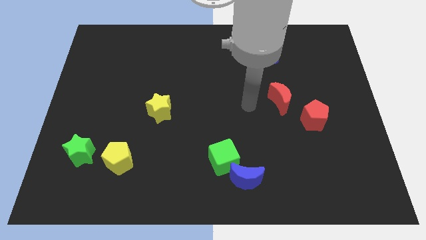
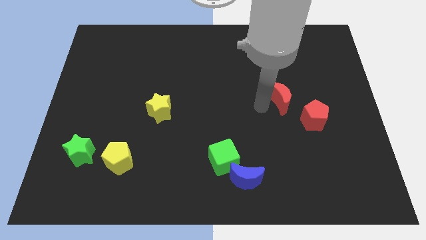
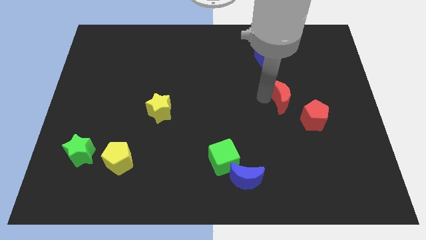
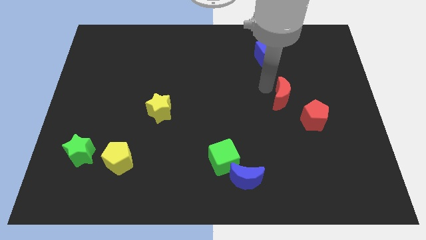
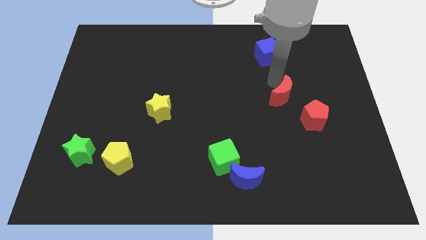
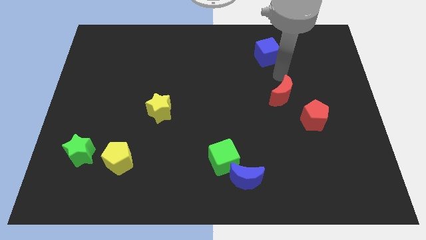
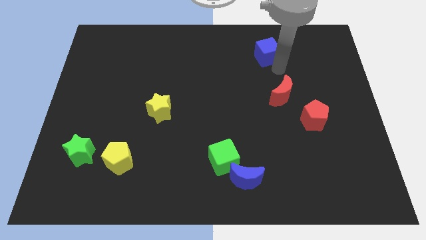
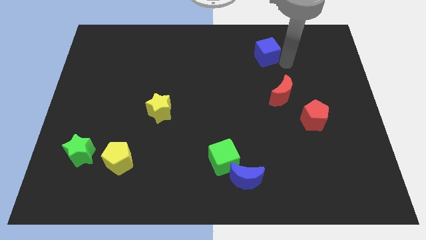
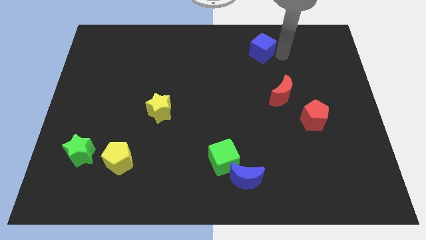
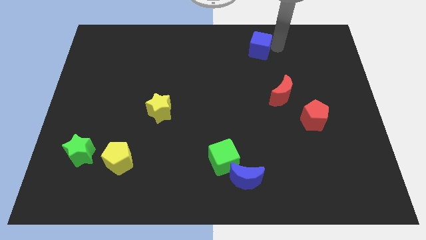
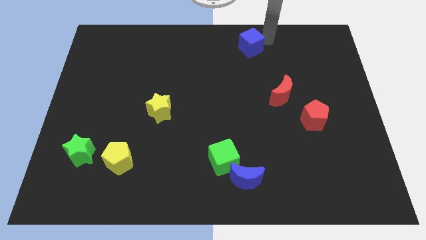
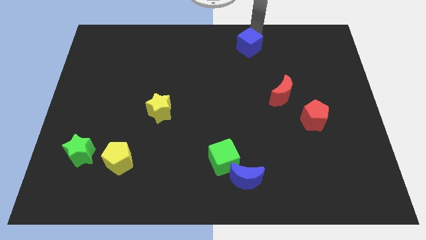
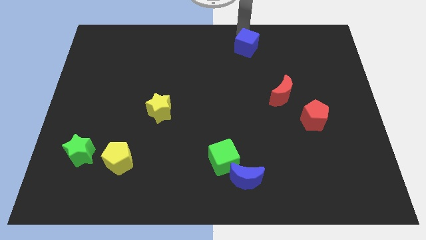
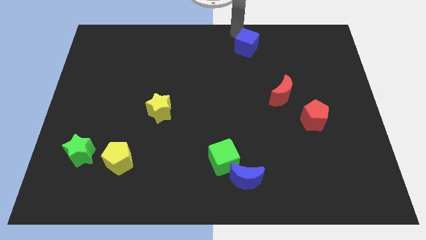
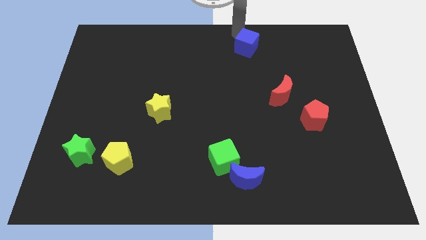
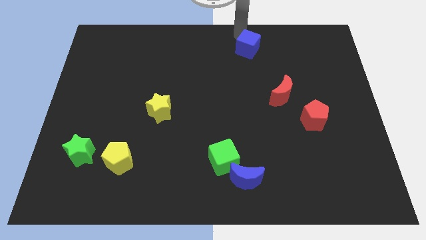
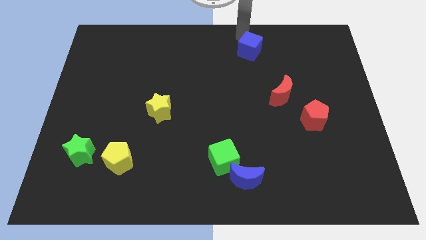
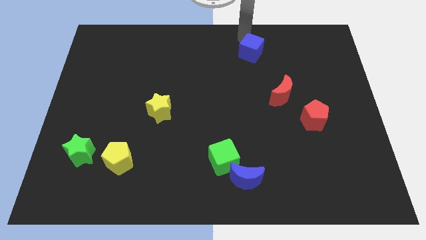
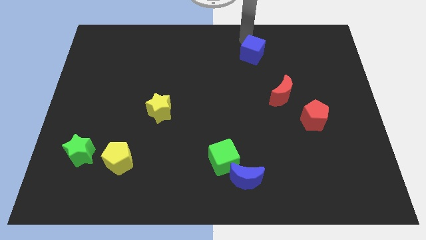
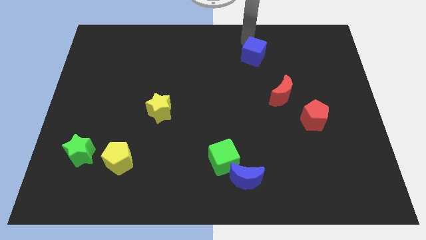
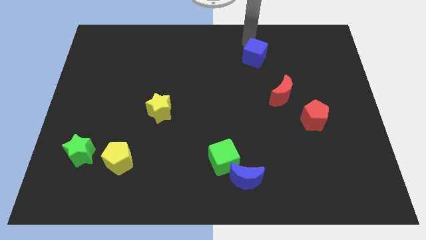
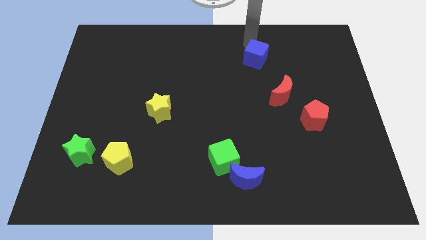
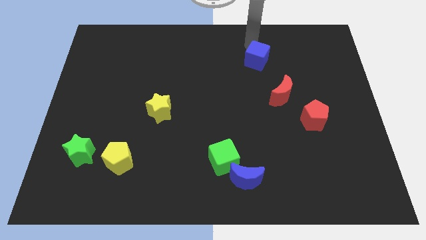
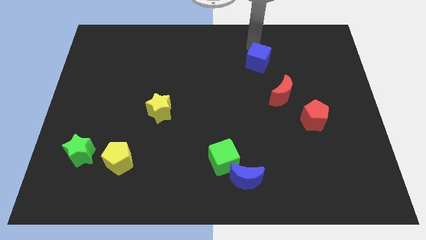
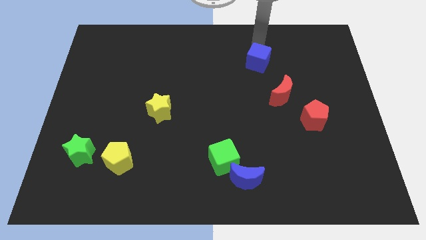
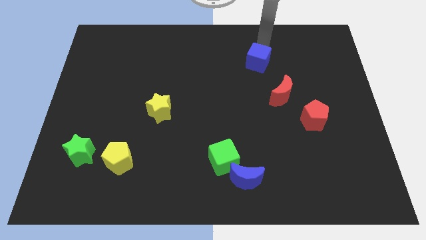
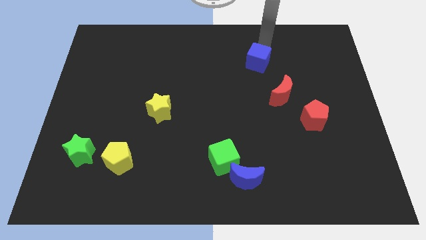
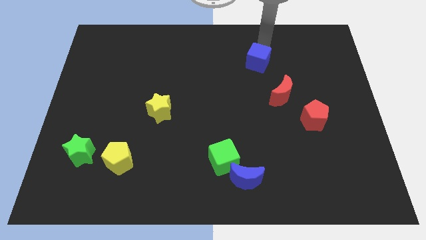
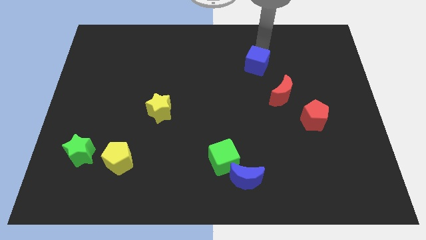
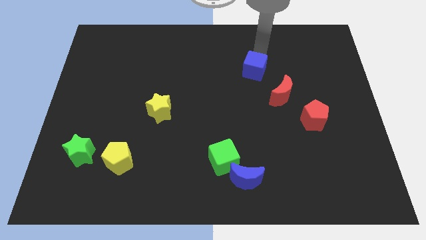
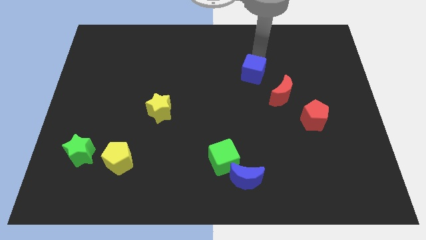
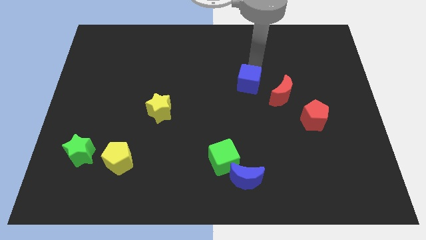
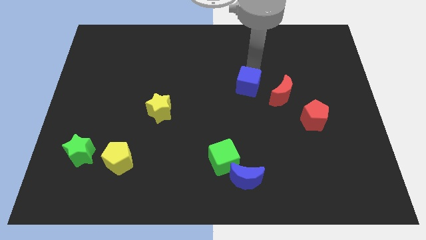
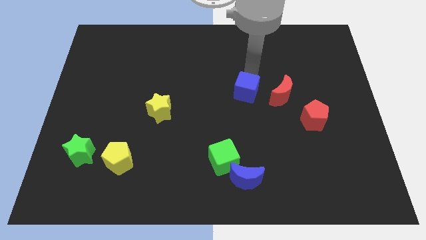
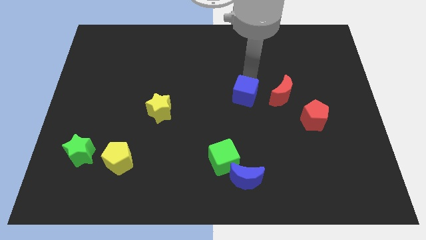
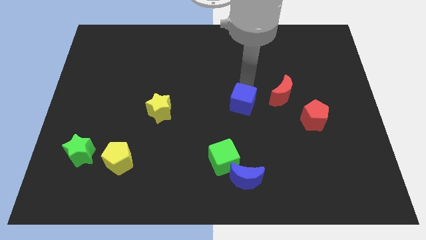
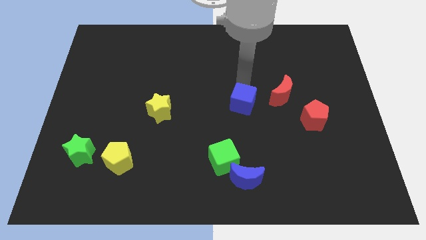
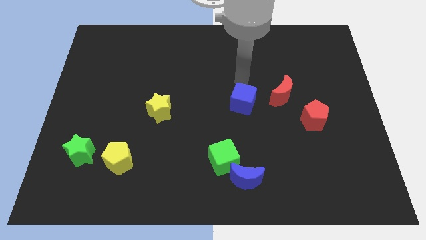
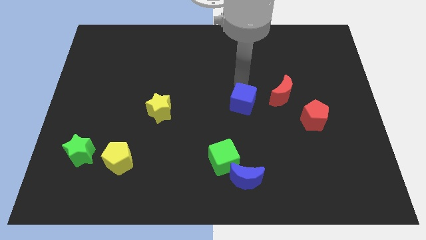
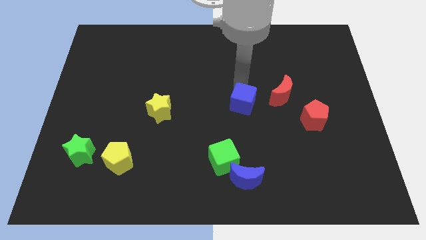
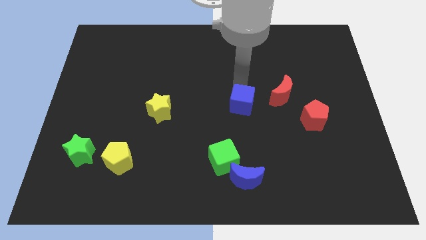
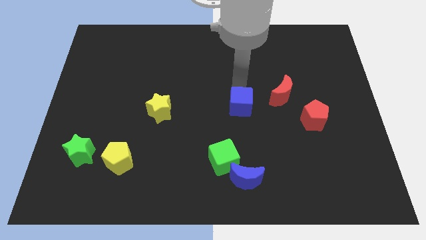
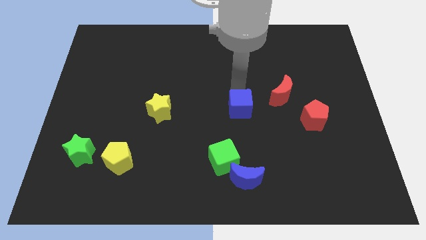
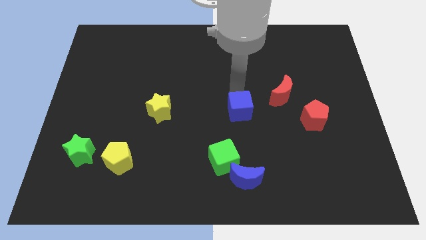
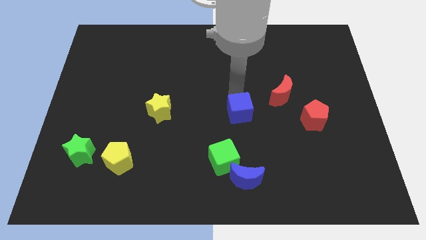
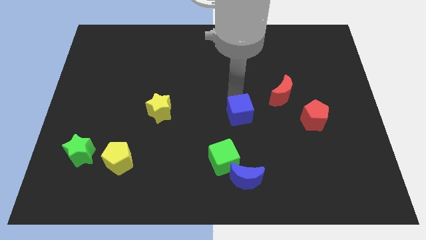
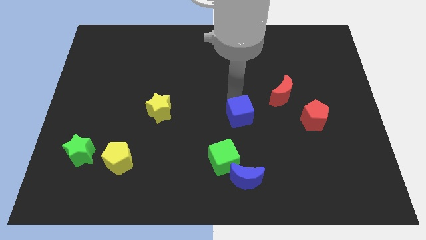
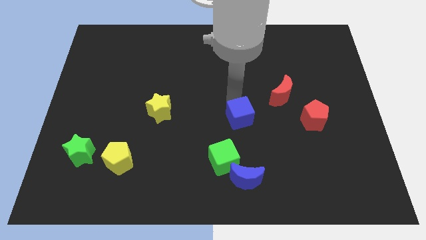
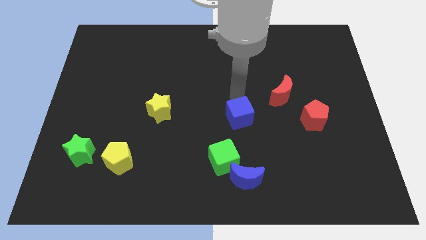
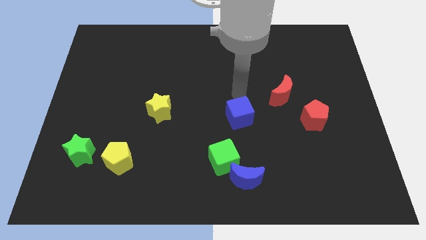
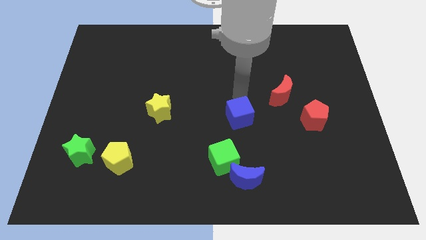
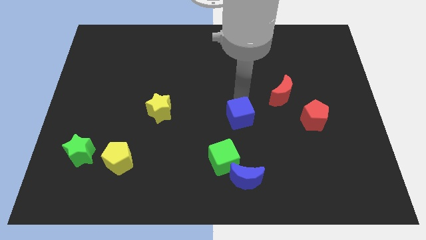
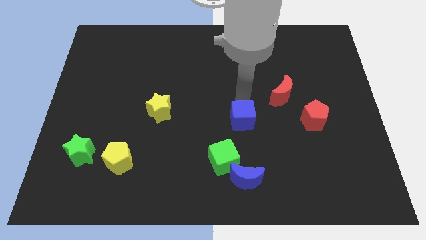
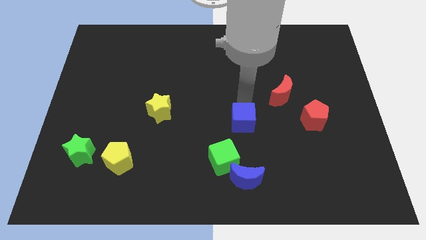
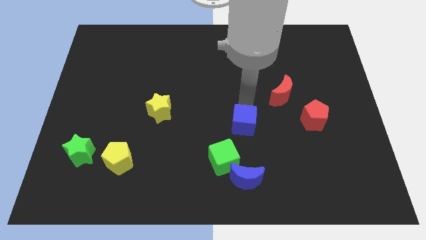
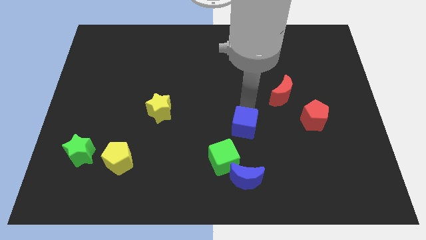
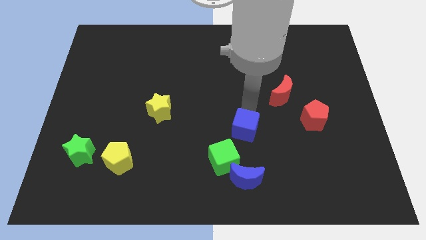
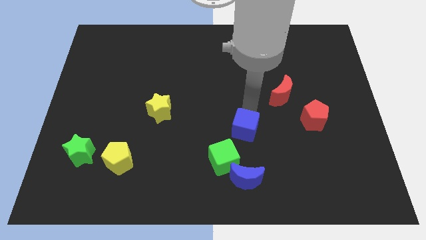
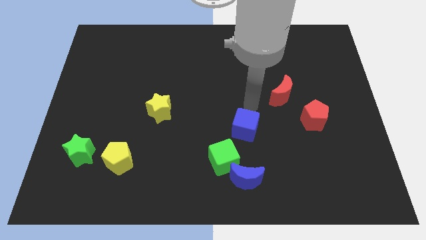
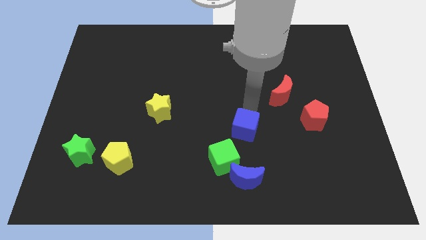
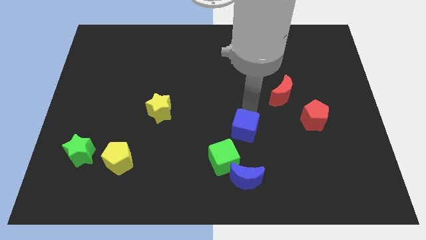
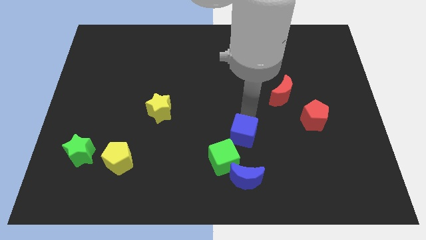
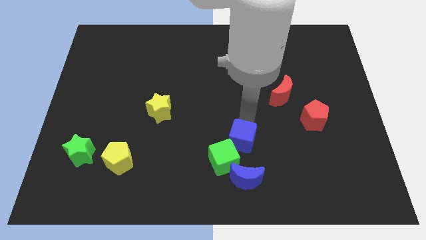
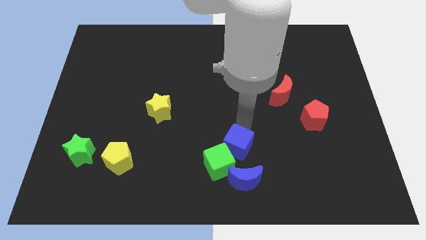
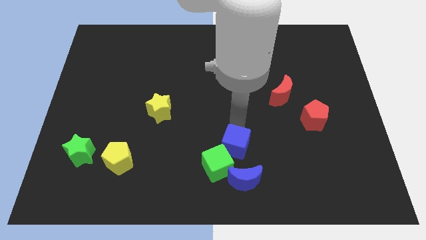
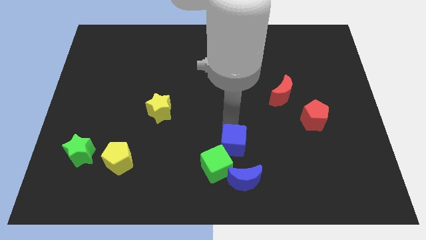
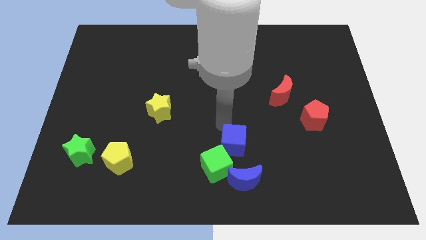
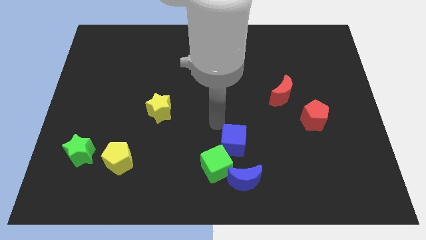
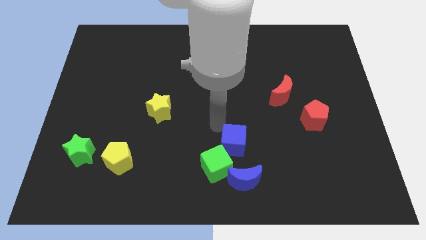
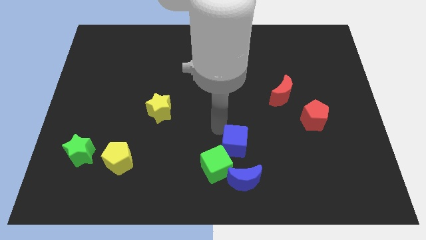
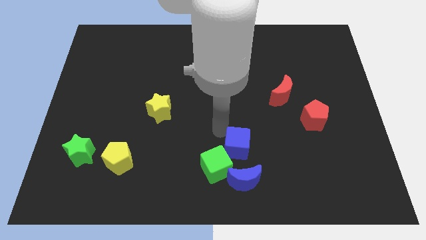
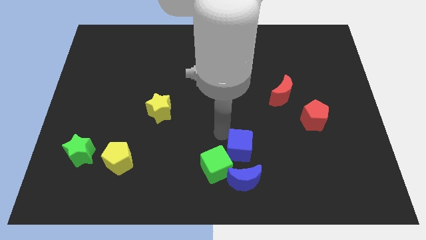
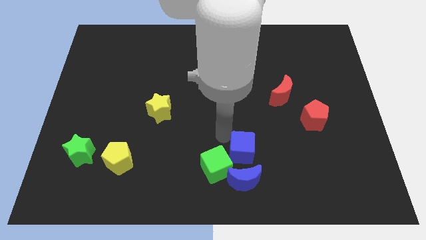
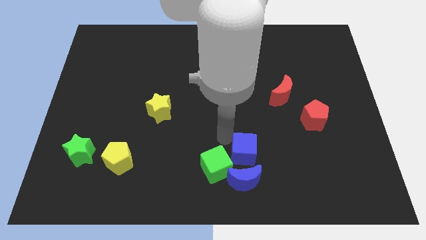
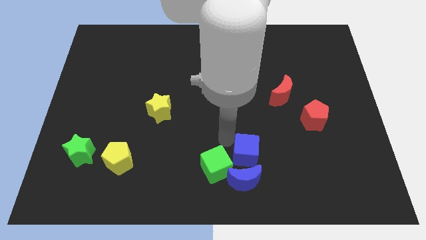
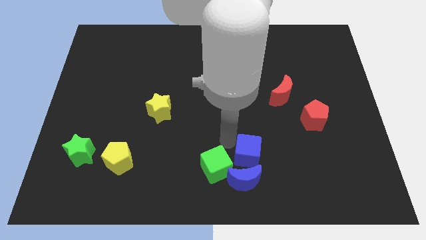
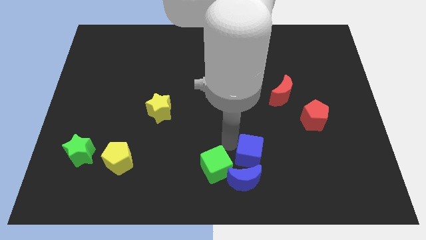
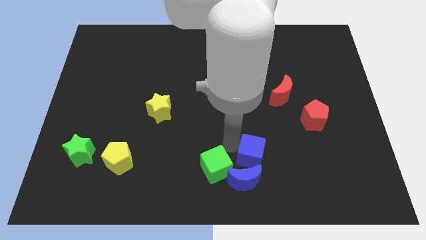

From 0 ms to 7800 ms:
move the blue cube to the blue moon
